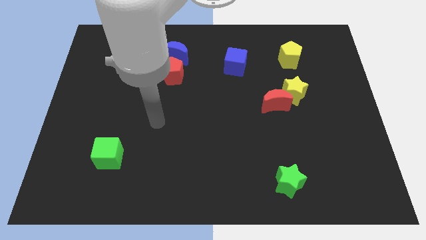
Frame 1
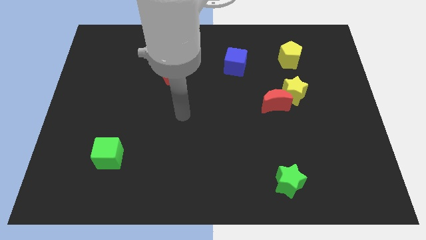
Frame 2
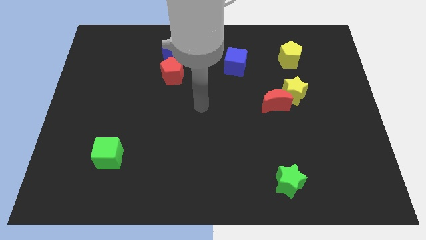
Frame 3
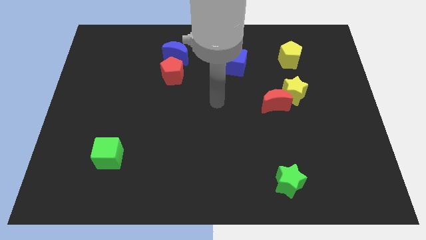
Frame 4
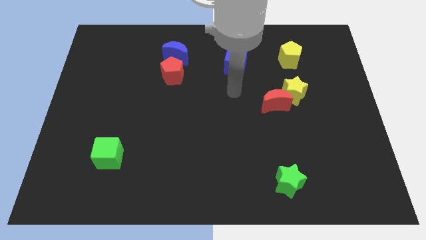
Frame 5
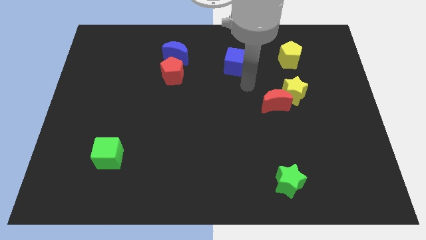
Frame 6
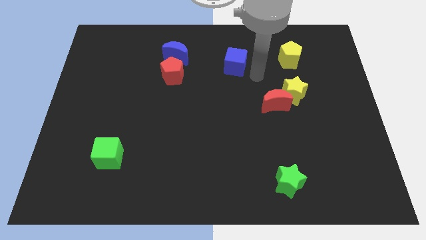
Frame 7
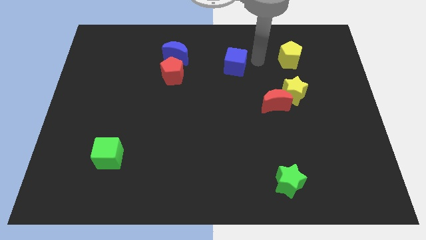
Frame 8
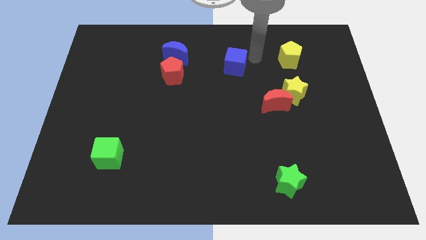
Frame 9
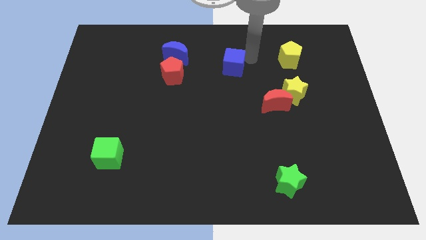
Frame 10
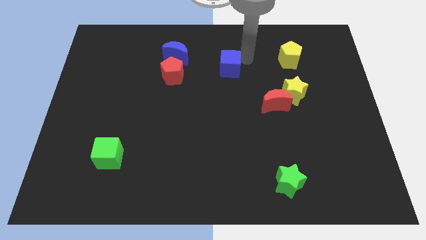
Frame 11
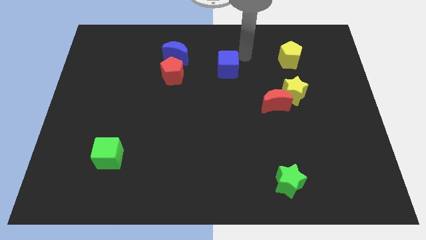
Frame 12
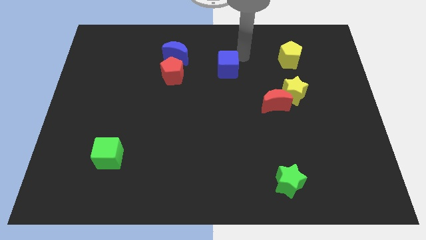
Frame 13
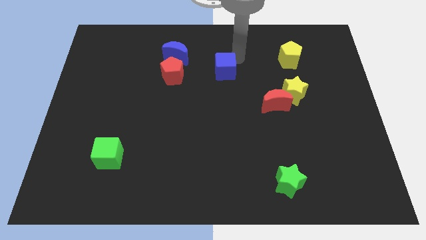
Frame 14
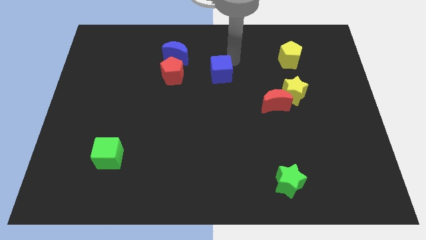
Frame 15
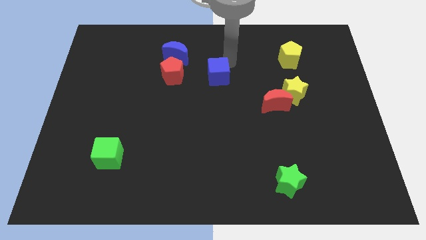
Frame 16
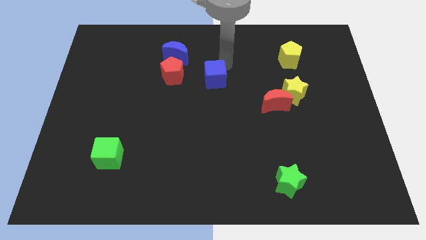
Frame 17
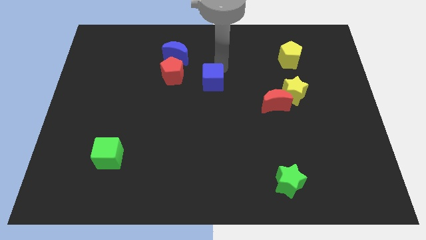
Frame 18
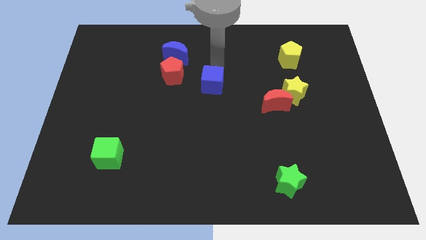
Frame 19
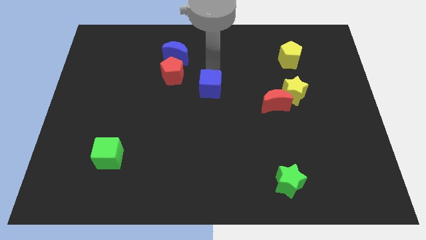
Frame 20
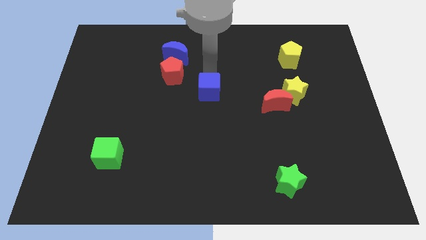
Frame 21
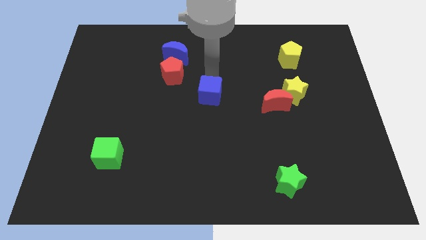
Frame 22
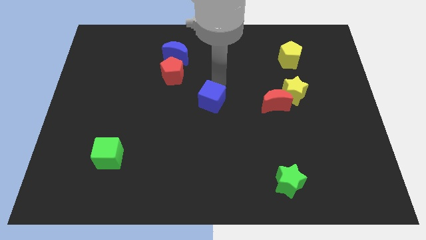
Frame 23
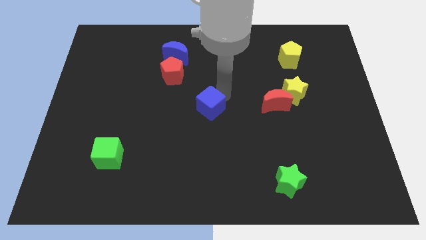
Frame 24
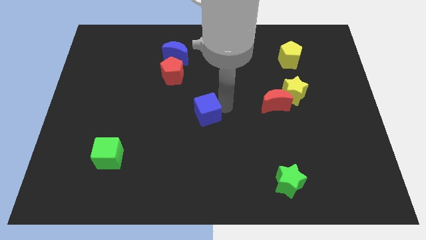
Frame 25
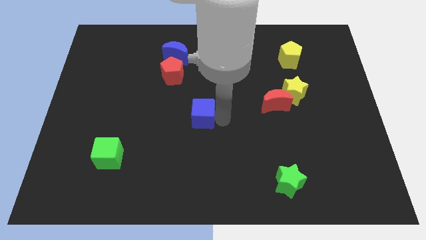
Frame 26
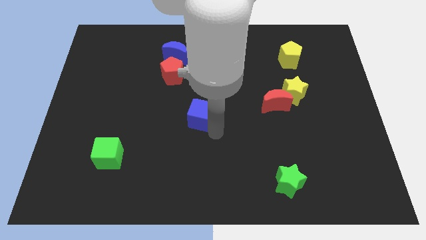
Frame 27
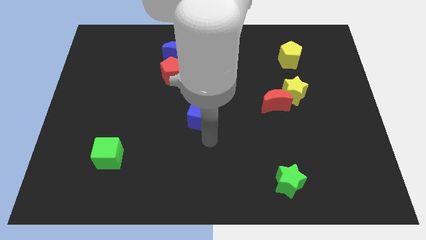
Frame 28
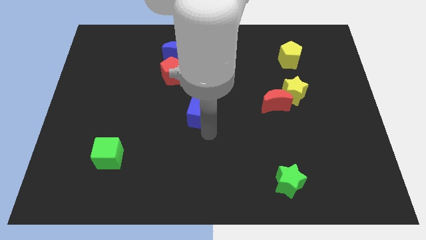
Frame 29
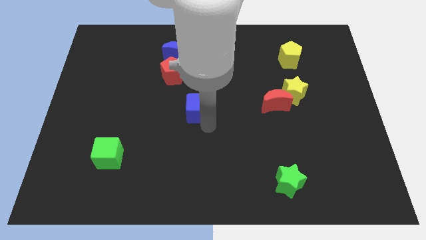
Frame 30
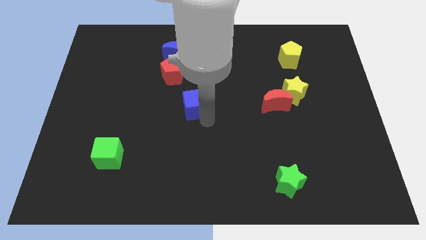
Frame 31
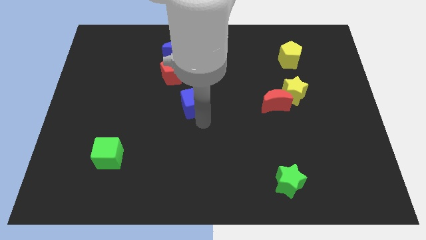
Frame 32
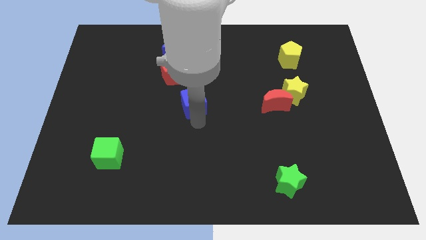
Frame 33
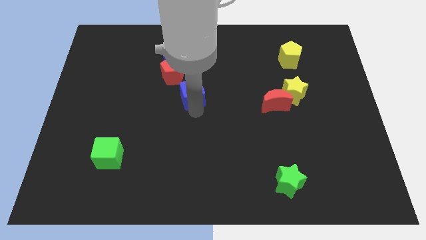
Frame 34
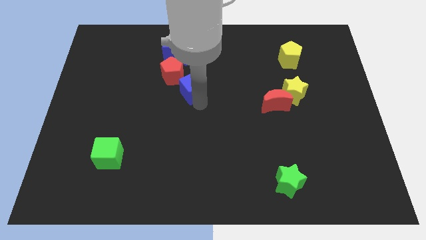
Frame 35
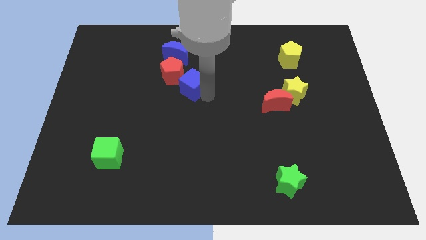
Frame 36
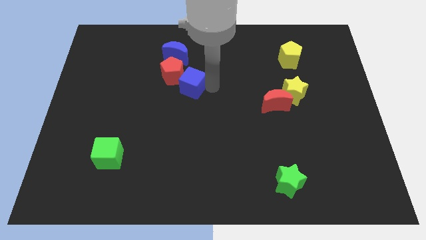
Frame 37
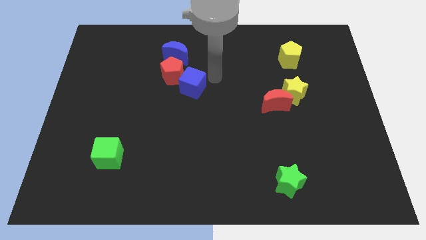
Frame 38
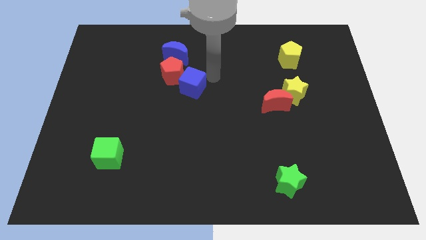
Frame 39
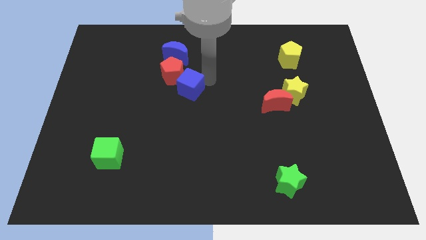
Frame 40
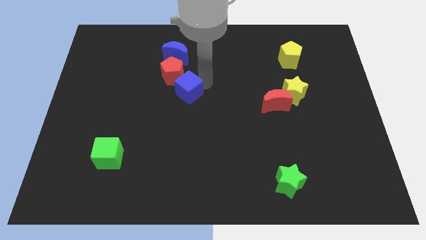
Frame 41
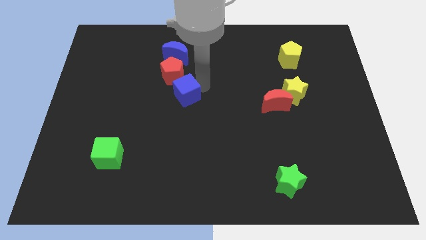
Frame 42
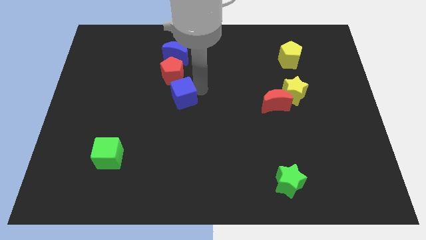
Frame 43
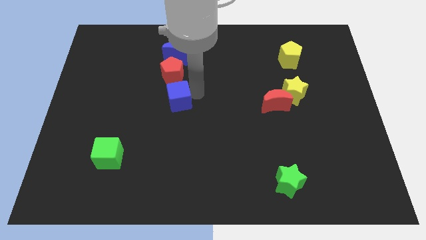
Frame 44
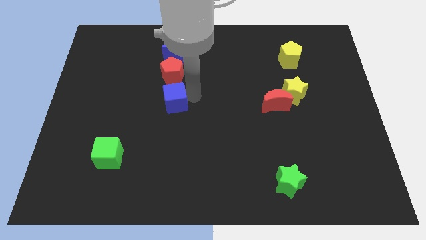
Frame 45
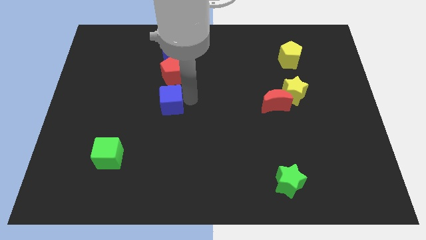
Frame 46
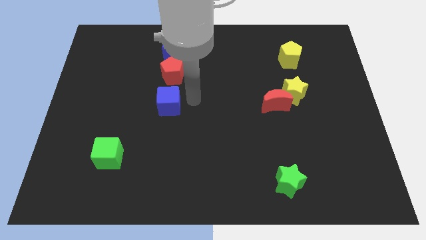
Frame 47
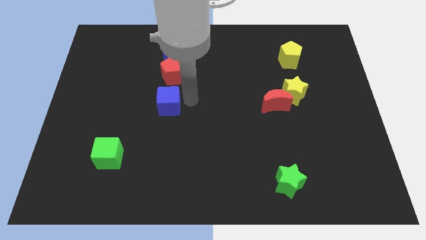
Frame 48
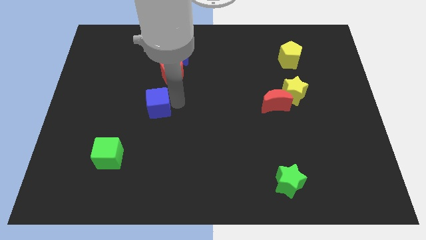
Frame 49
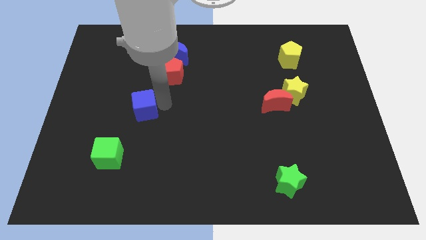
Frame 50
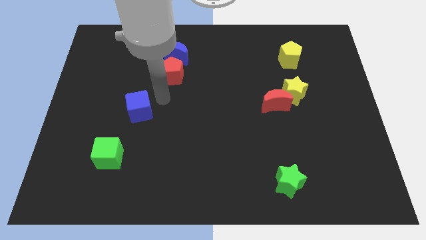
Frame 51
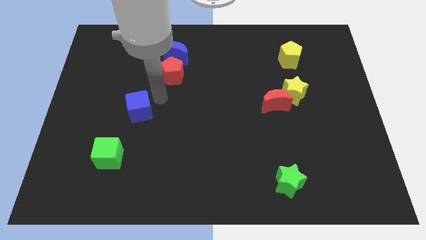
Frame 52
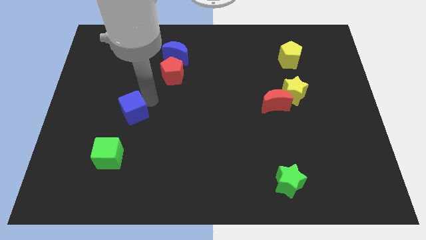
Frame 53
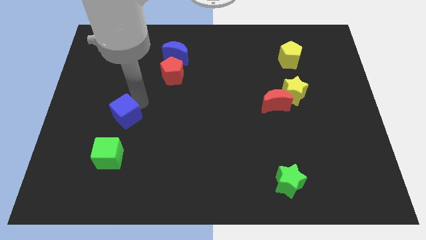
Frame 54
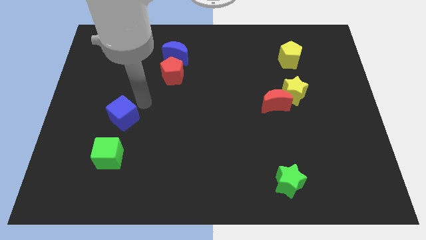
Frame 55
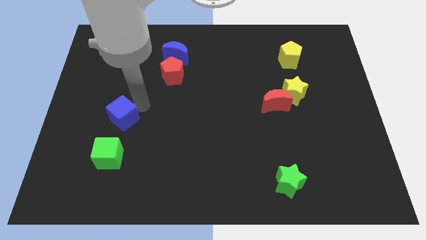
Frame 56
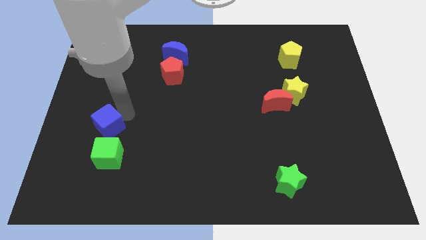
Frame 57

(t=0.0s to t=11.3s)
slide the blue cube to the top left of the green cube

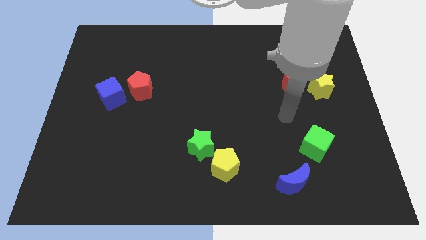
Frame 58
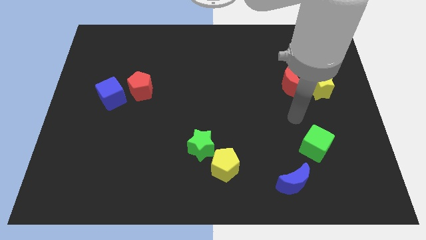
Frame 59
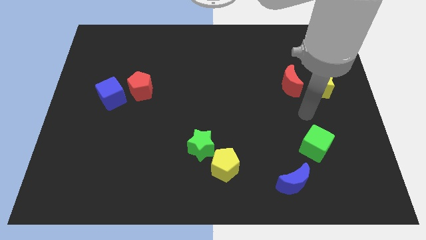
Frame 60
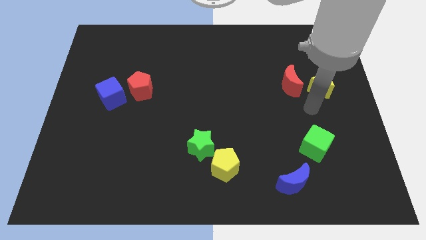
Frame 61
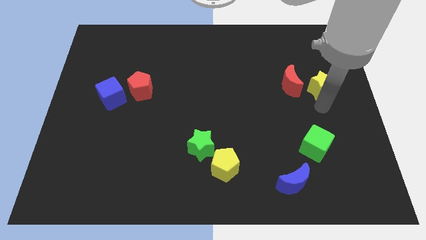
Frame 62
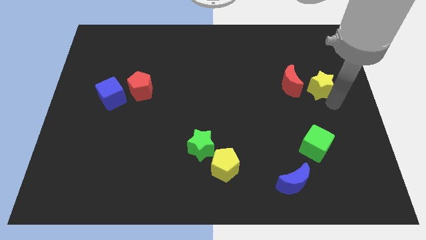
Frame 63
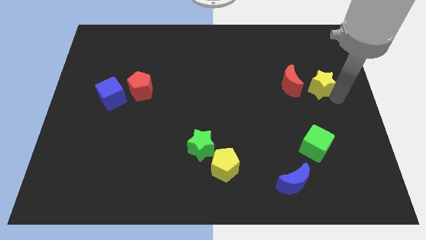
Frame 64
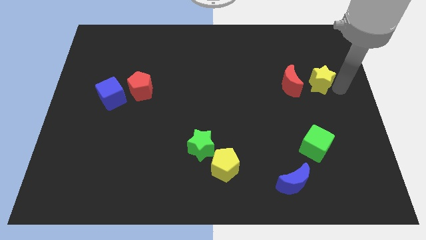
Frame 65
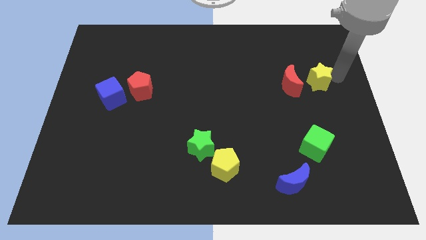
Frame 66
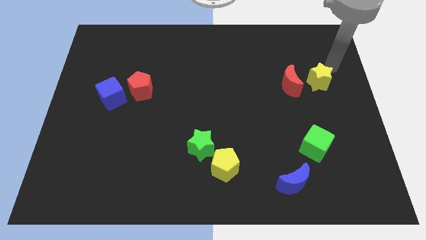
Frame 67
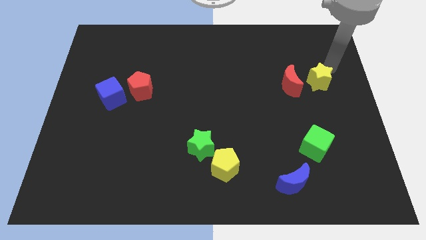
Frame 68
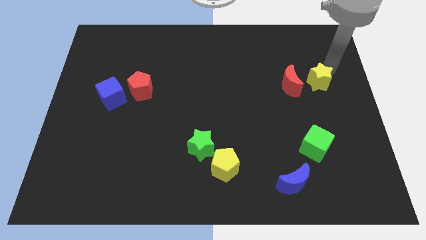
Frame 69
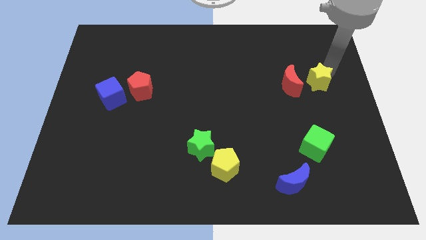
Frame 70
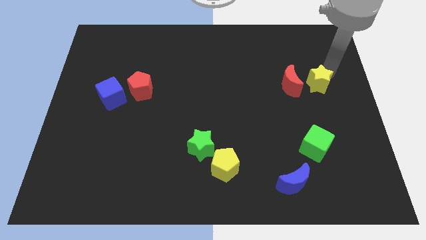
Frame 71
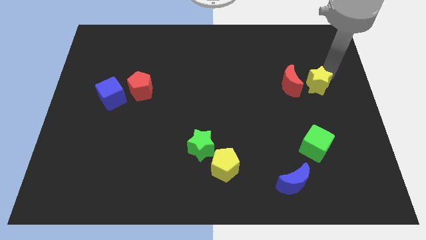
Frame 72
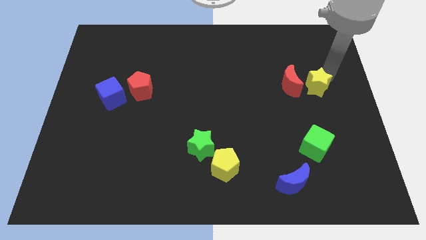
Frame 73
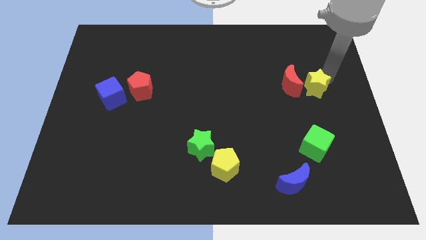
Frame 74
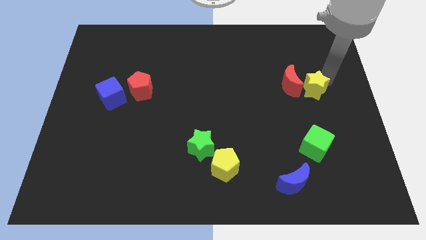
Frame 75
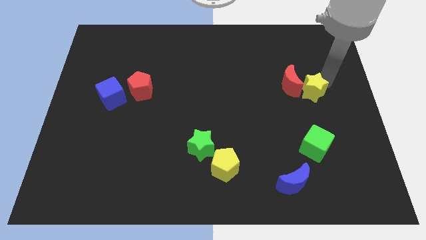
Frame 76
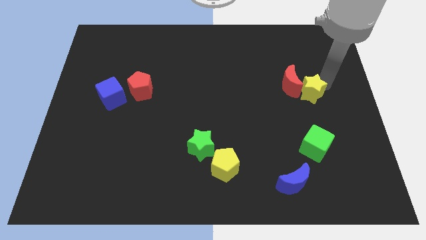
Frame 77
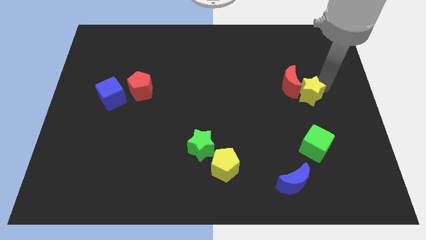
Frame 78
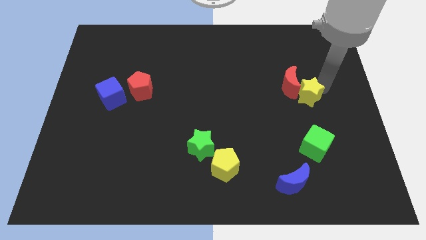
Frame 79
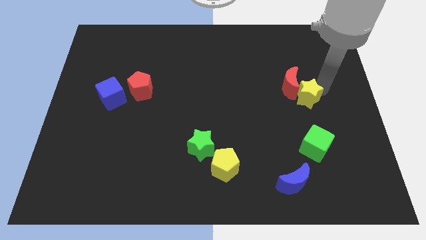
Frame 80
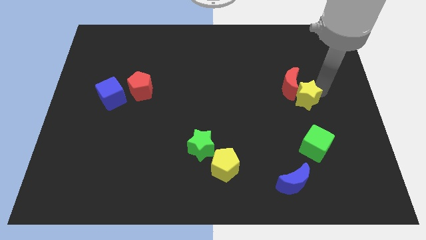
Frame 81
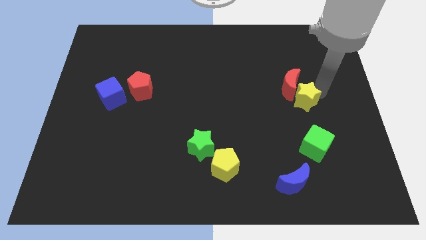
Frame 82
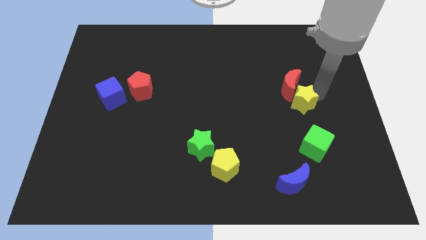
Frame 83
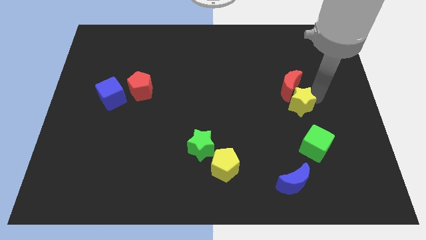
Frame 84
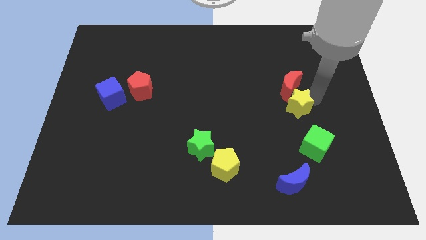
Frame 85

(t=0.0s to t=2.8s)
move the yellow star diagonally down and to the left of the red moon
